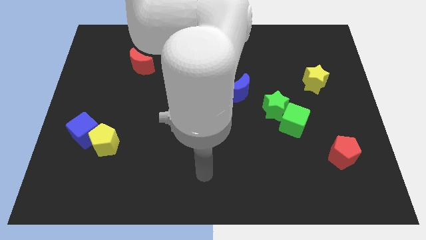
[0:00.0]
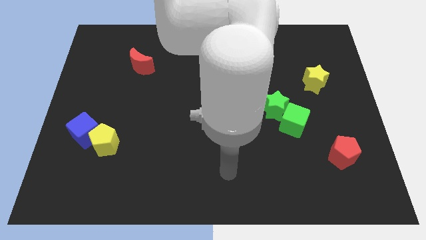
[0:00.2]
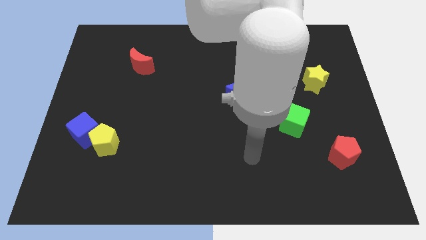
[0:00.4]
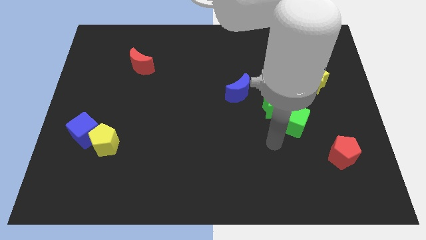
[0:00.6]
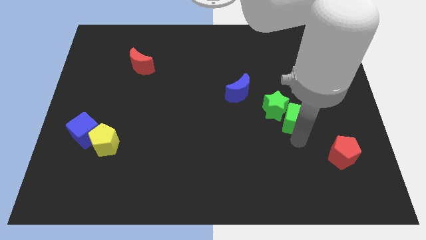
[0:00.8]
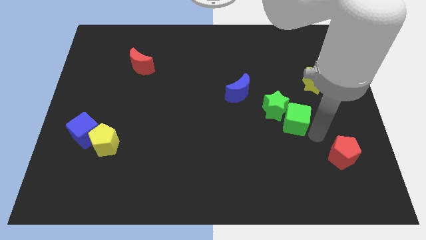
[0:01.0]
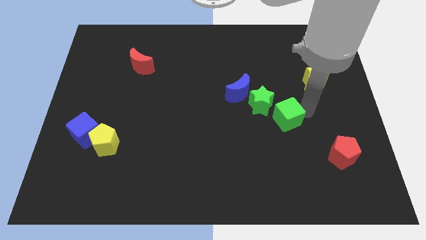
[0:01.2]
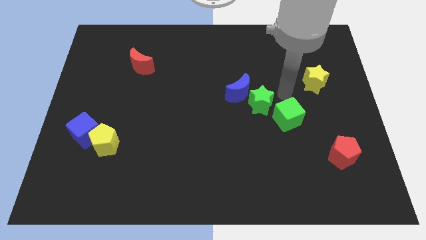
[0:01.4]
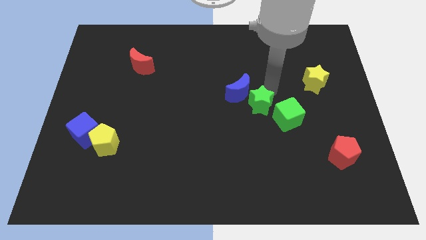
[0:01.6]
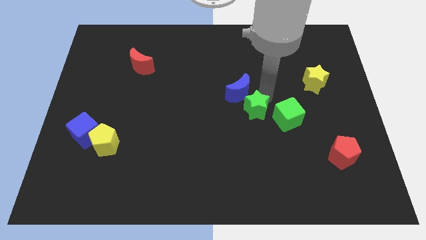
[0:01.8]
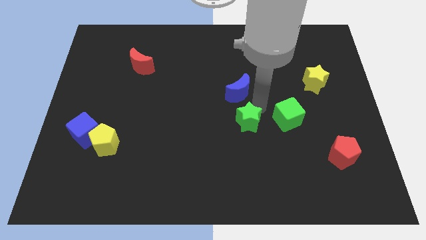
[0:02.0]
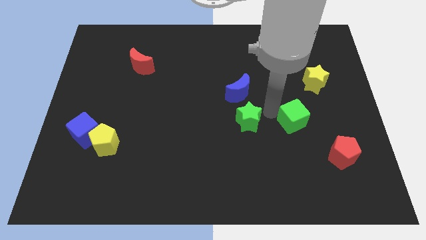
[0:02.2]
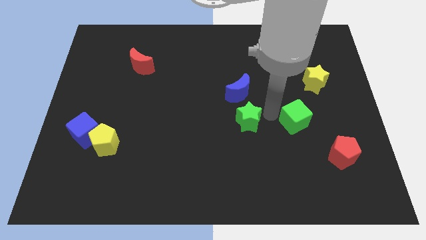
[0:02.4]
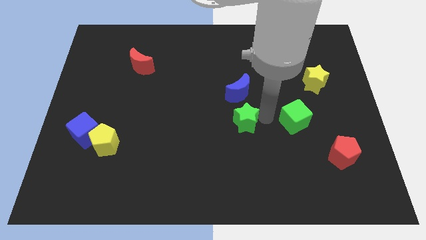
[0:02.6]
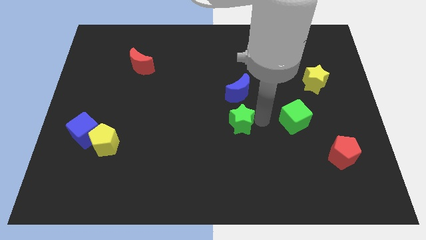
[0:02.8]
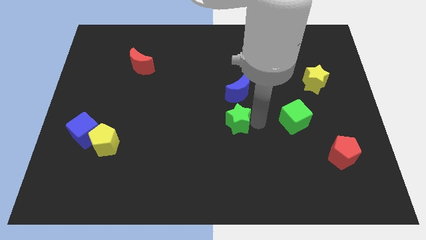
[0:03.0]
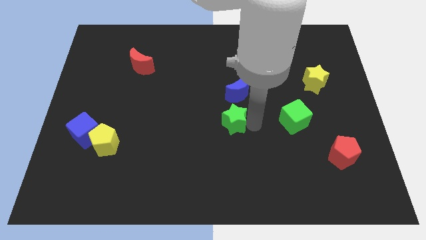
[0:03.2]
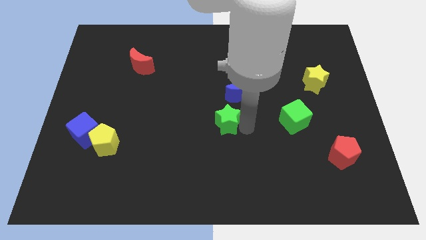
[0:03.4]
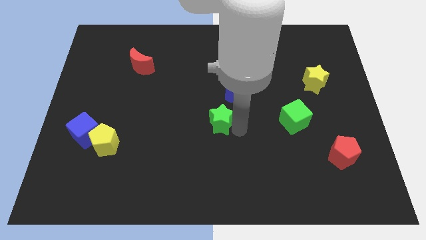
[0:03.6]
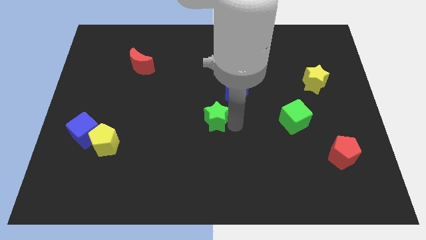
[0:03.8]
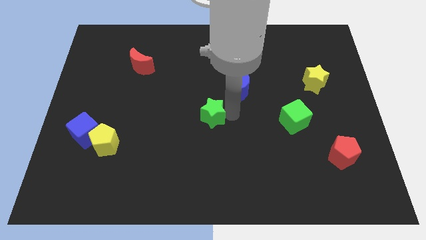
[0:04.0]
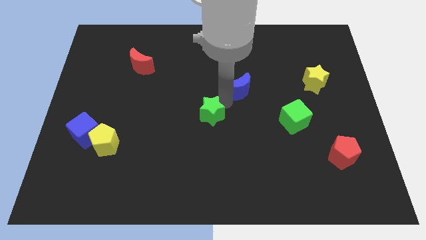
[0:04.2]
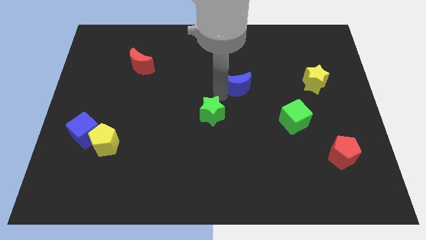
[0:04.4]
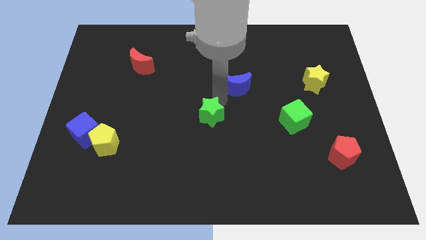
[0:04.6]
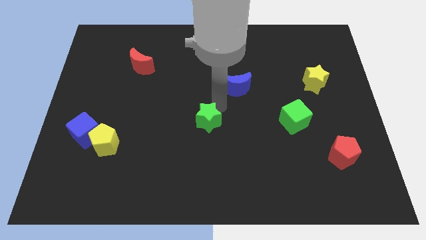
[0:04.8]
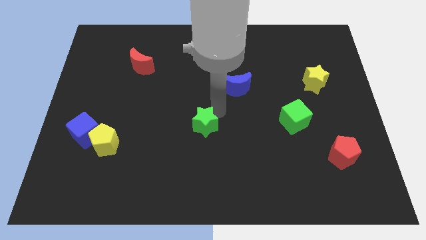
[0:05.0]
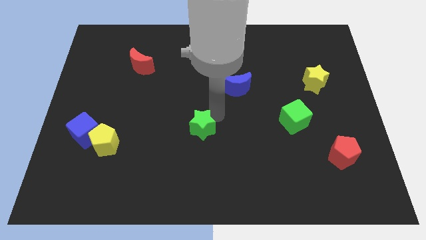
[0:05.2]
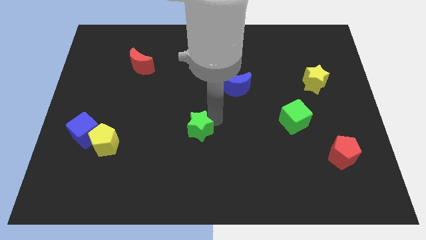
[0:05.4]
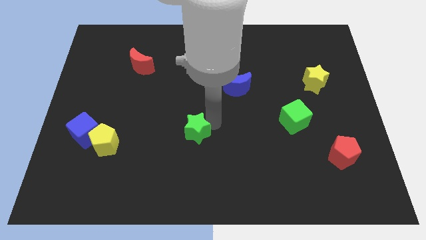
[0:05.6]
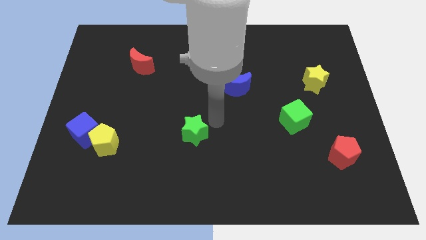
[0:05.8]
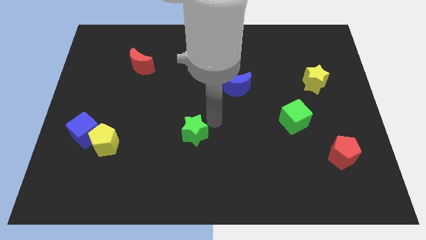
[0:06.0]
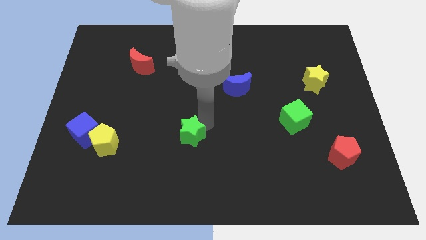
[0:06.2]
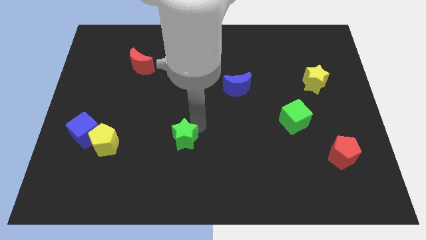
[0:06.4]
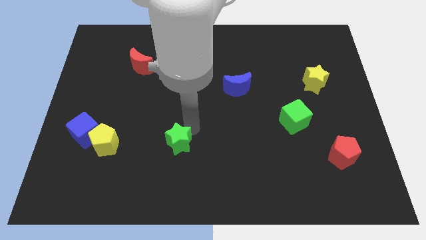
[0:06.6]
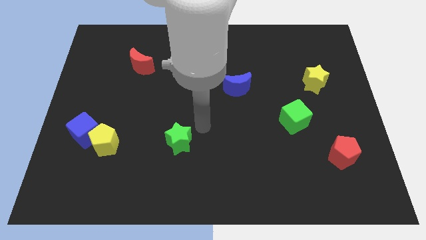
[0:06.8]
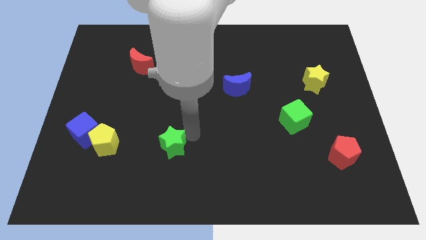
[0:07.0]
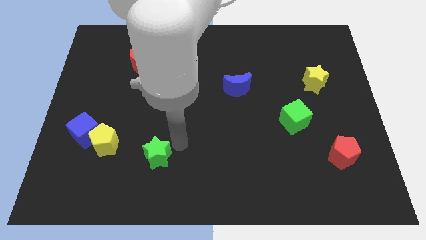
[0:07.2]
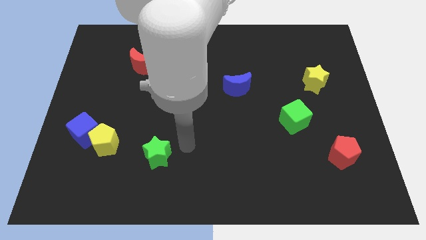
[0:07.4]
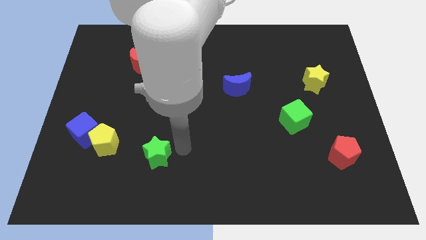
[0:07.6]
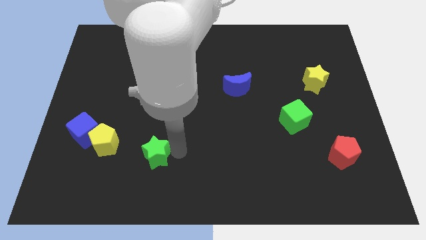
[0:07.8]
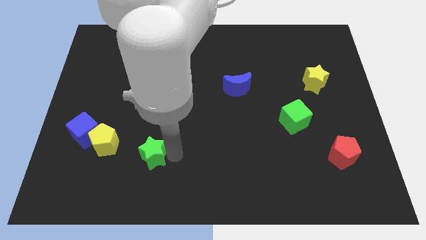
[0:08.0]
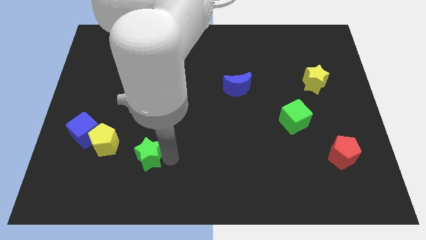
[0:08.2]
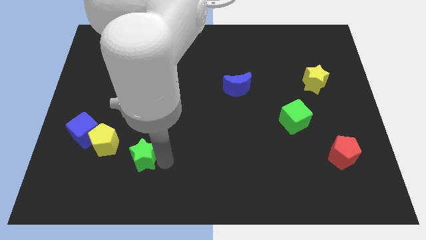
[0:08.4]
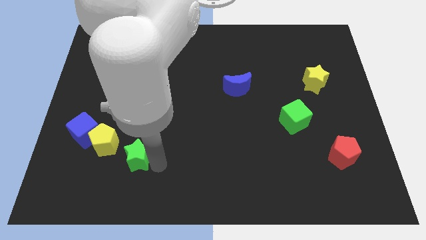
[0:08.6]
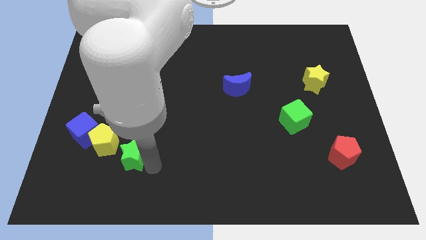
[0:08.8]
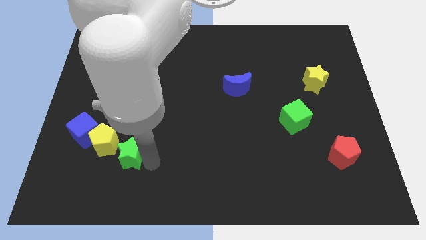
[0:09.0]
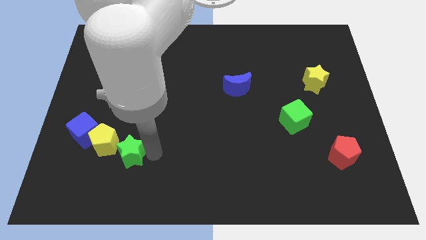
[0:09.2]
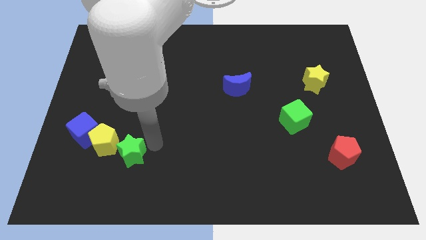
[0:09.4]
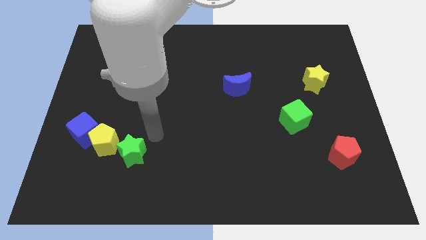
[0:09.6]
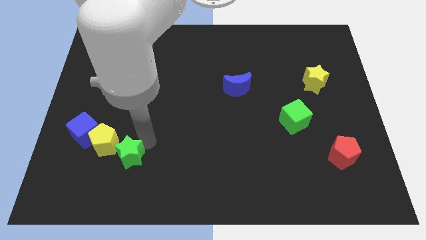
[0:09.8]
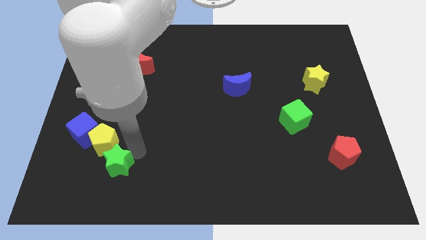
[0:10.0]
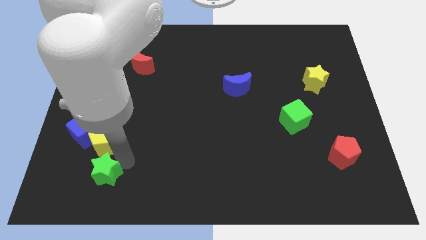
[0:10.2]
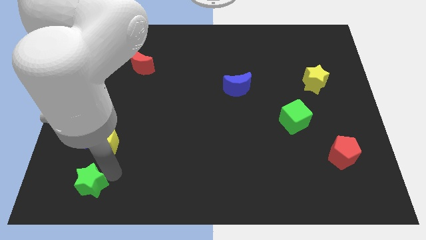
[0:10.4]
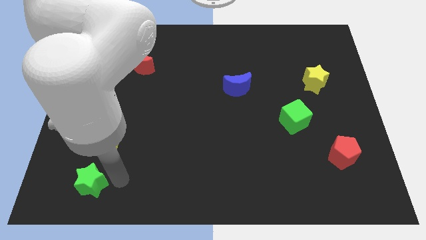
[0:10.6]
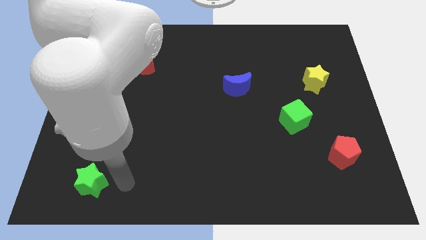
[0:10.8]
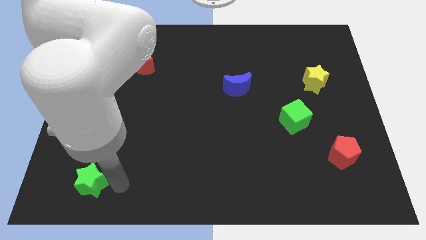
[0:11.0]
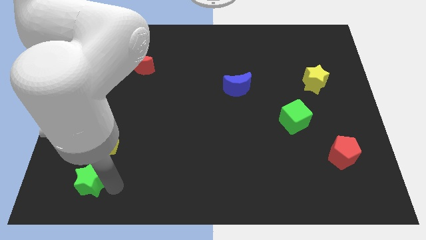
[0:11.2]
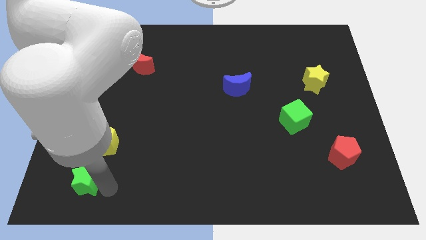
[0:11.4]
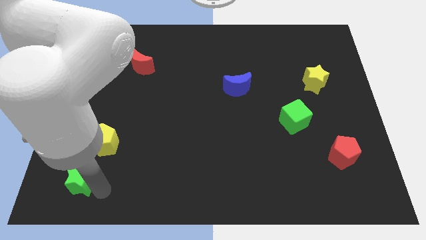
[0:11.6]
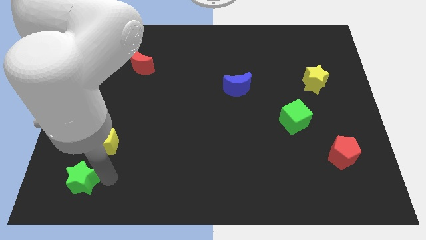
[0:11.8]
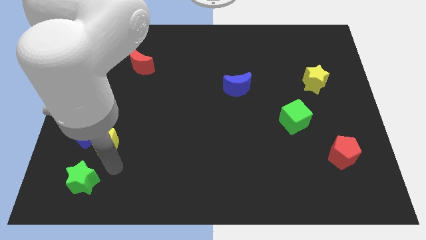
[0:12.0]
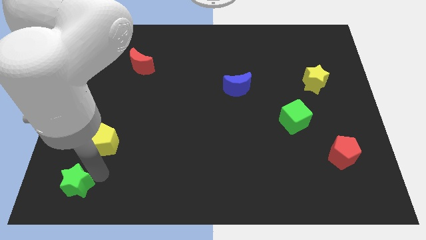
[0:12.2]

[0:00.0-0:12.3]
move the green star to the bottom left of the board

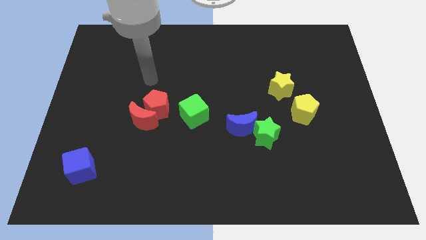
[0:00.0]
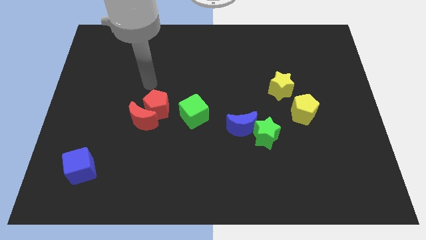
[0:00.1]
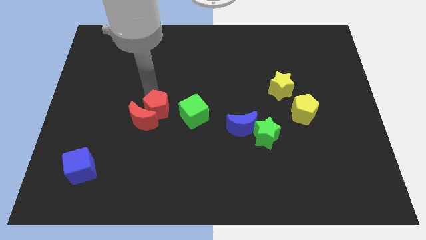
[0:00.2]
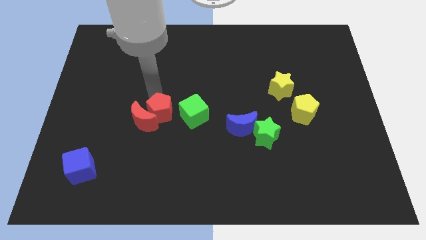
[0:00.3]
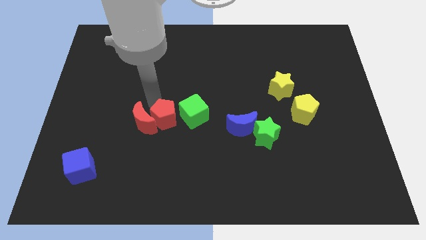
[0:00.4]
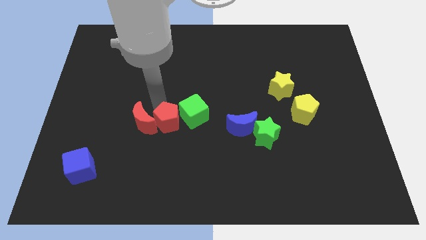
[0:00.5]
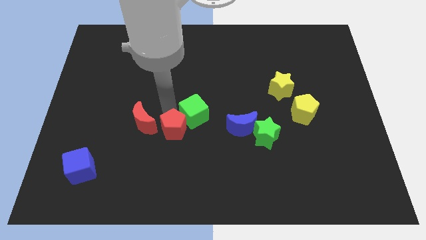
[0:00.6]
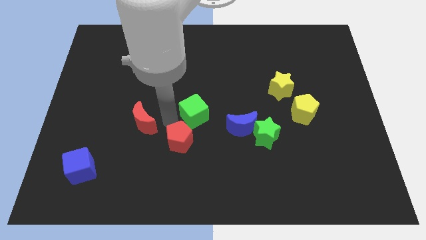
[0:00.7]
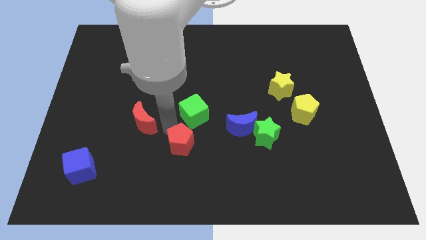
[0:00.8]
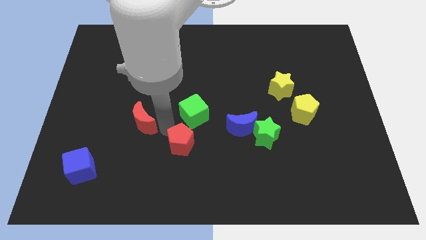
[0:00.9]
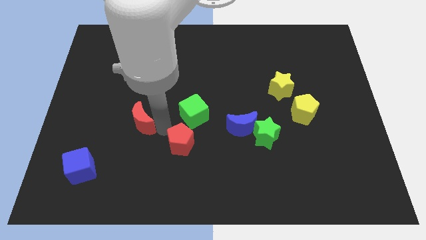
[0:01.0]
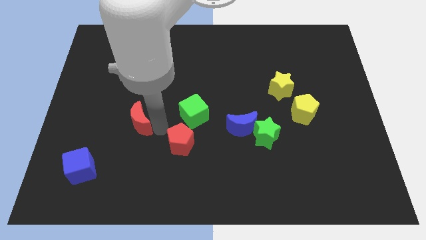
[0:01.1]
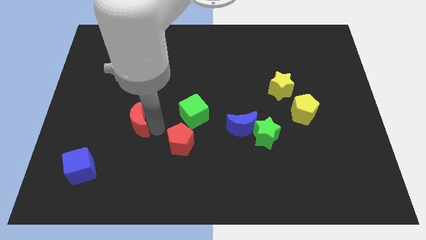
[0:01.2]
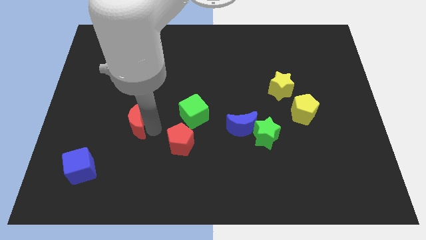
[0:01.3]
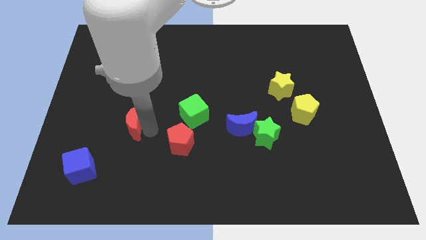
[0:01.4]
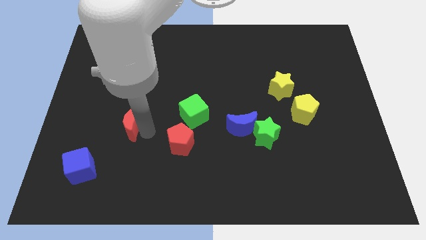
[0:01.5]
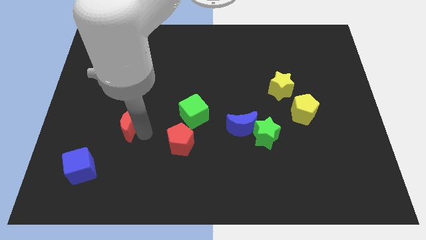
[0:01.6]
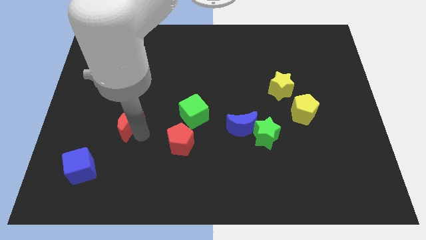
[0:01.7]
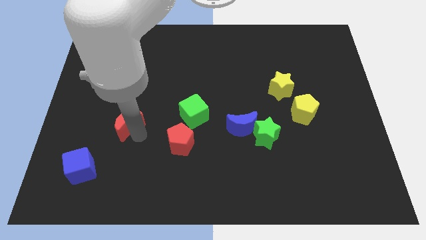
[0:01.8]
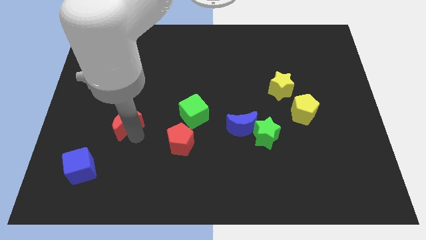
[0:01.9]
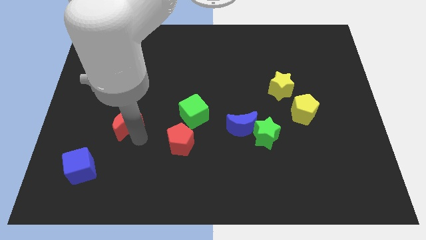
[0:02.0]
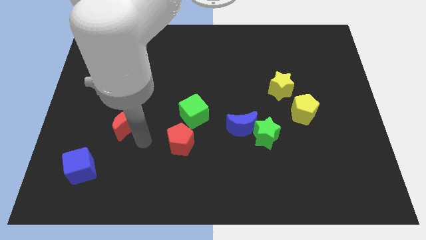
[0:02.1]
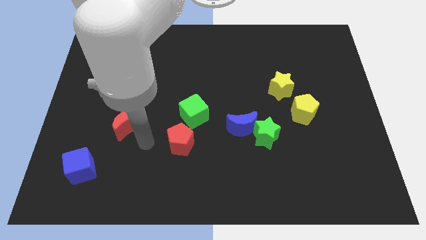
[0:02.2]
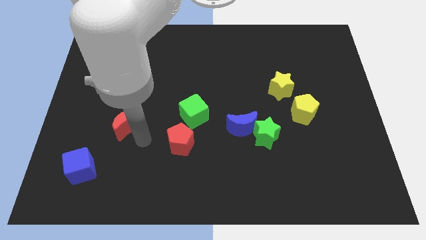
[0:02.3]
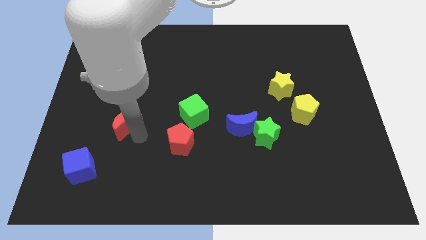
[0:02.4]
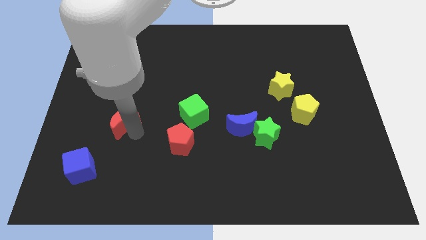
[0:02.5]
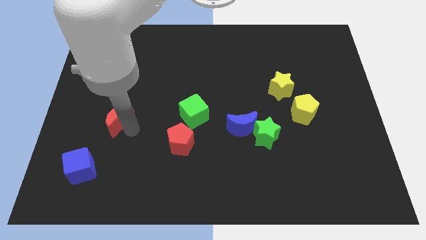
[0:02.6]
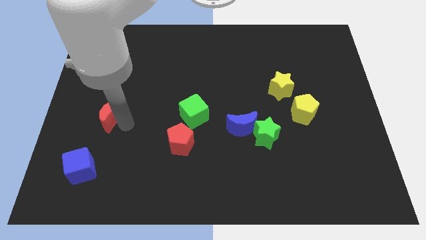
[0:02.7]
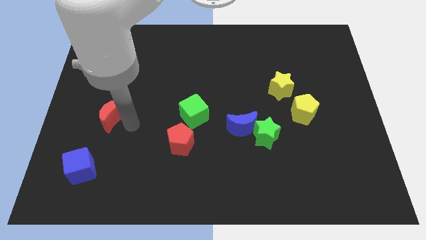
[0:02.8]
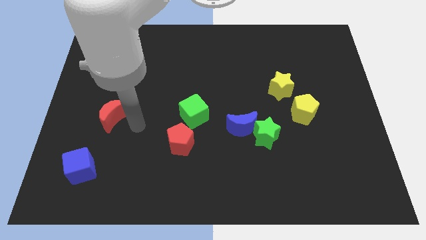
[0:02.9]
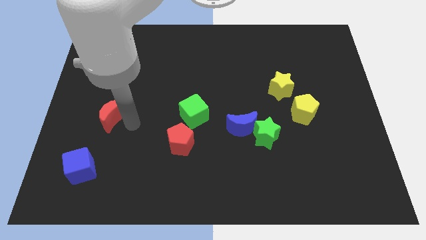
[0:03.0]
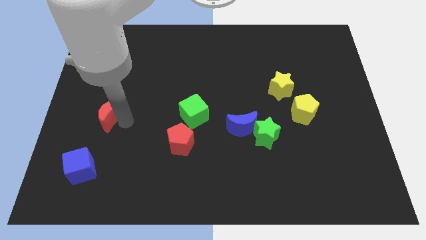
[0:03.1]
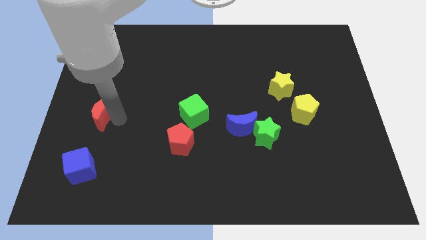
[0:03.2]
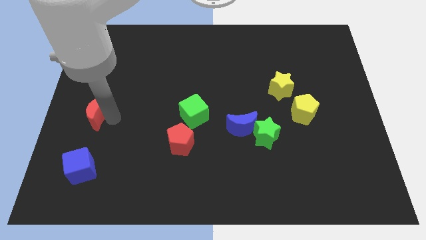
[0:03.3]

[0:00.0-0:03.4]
push the red moon to the center left
